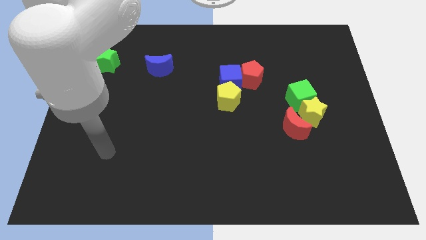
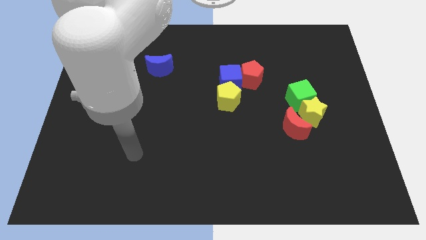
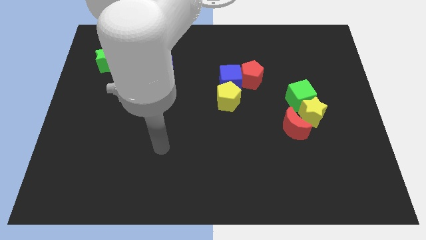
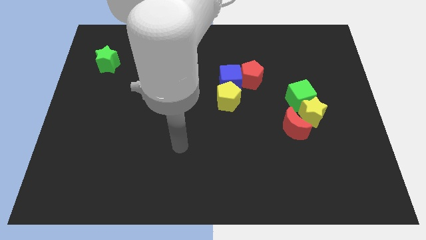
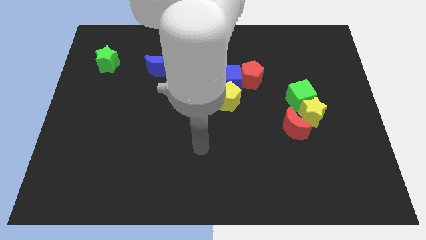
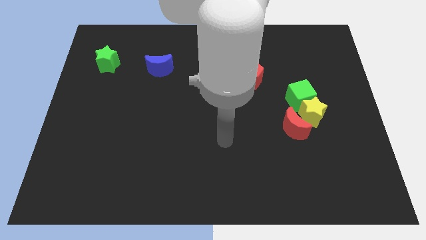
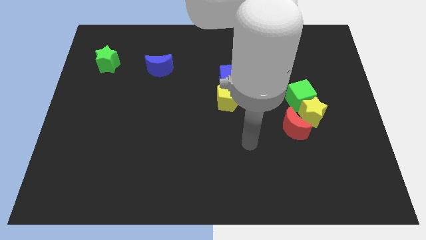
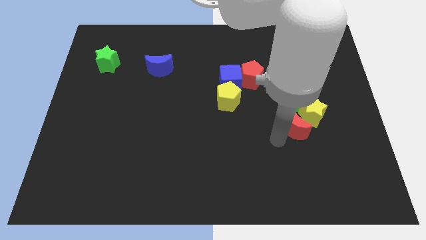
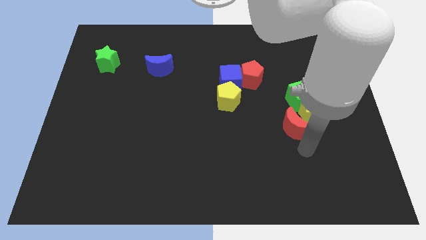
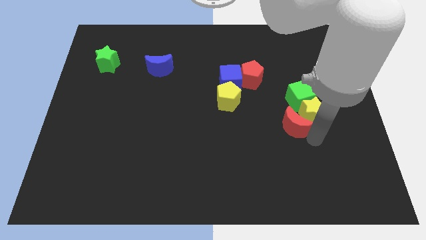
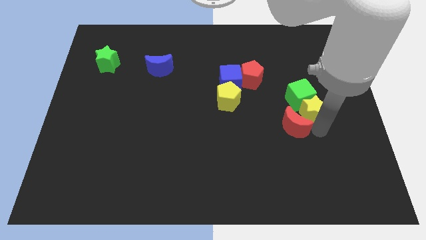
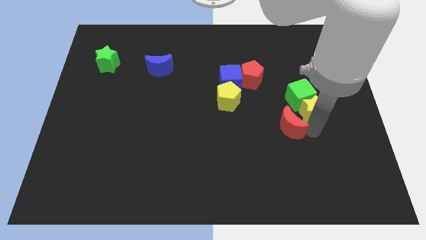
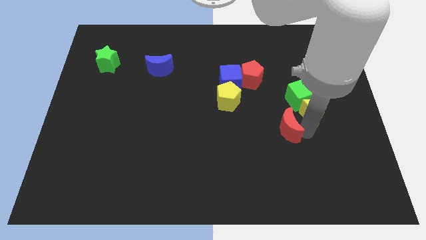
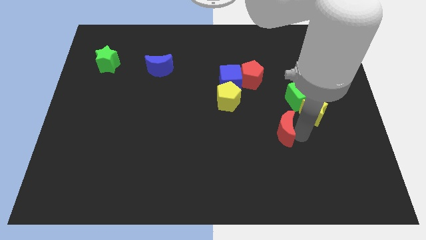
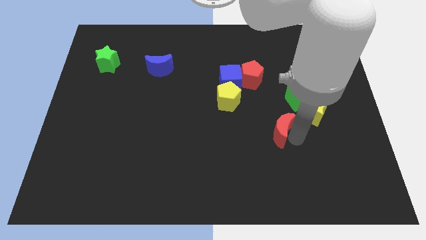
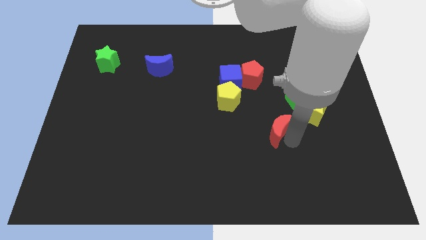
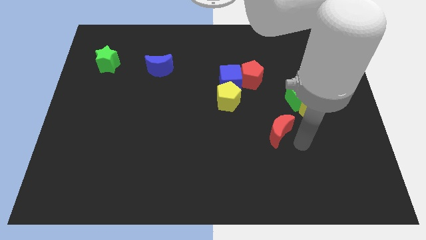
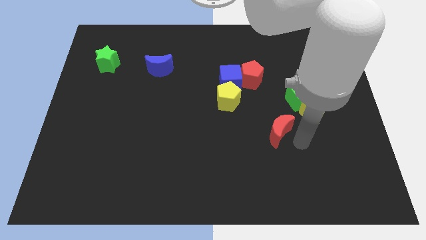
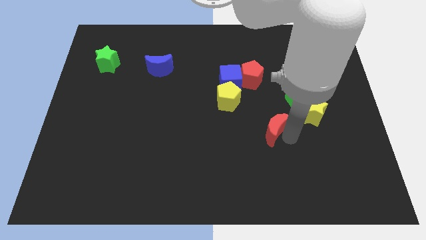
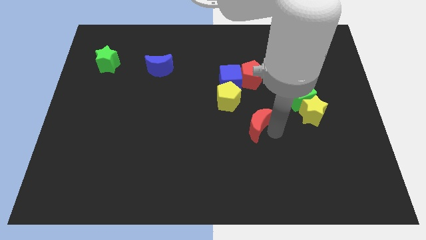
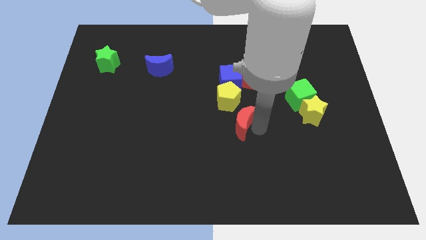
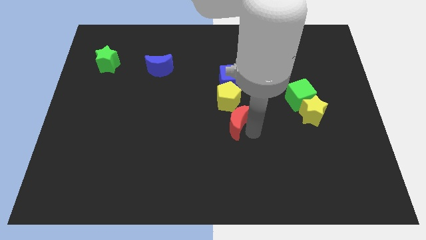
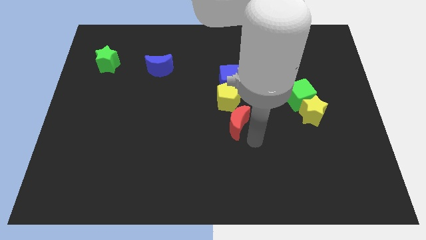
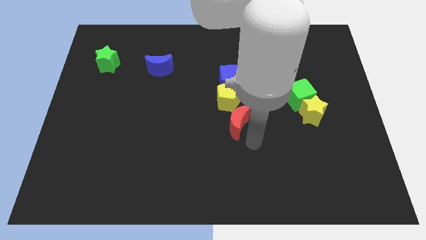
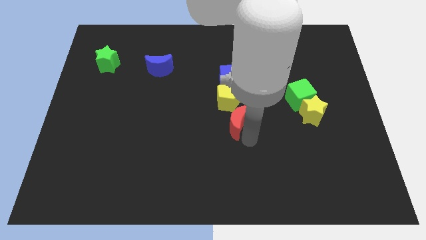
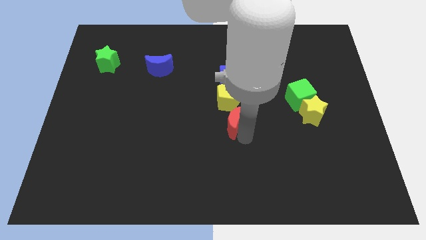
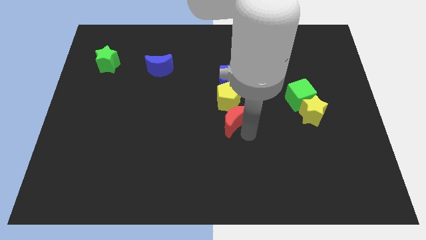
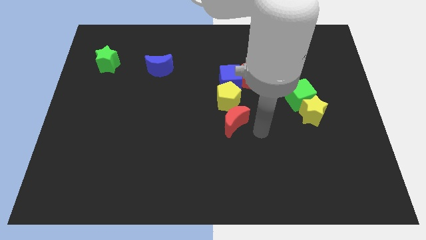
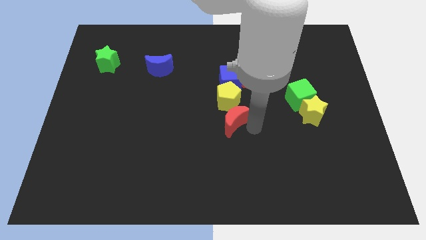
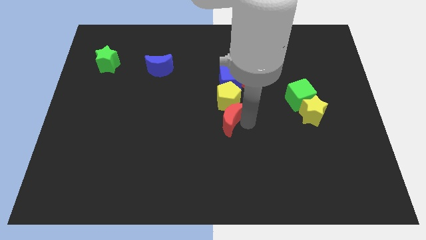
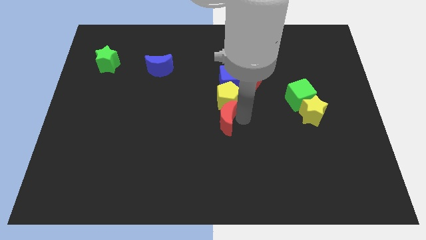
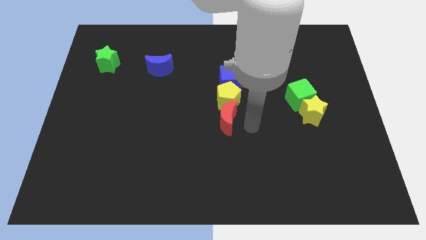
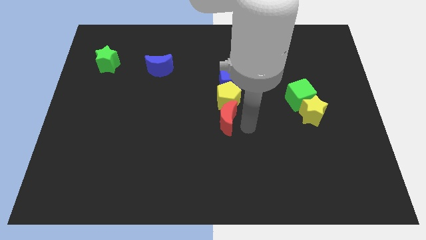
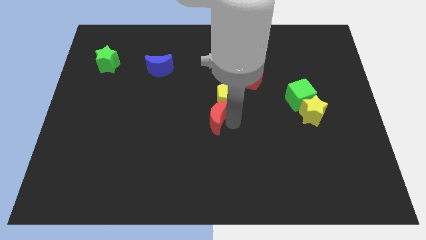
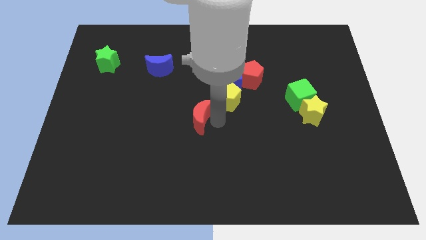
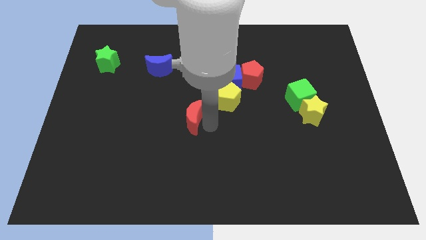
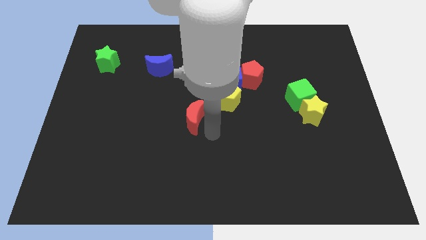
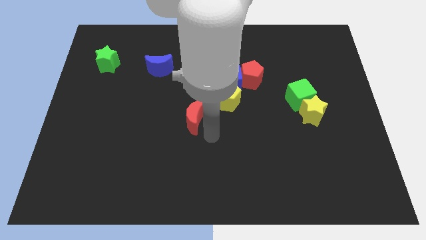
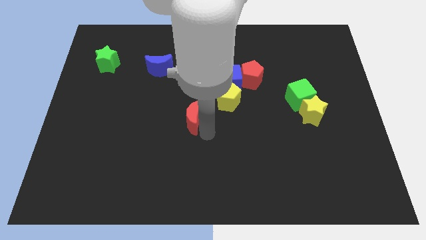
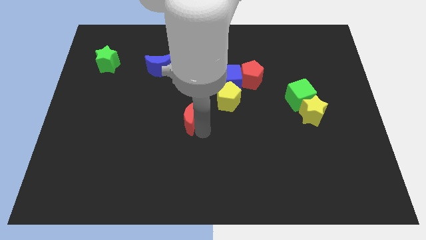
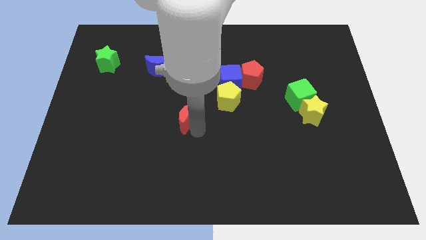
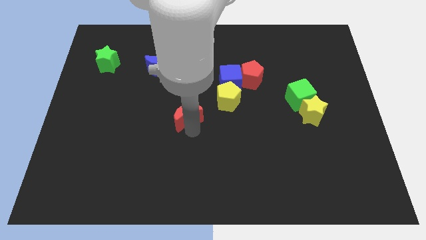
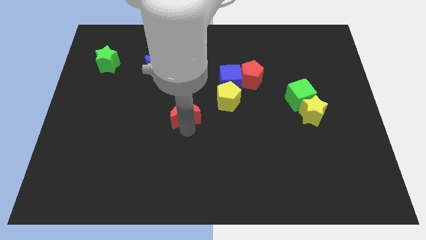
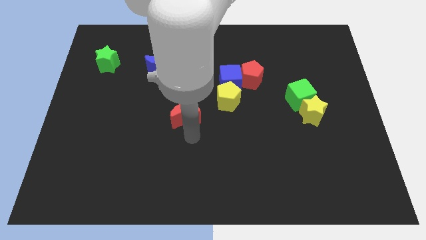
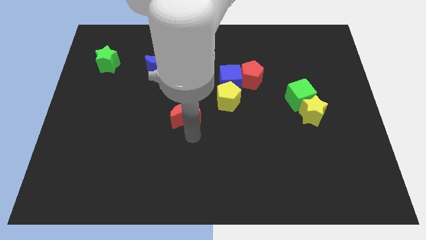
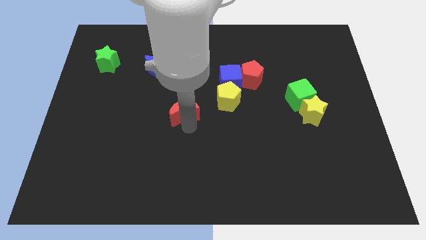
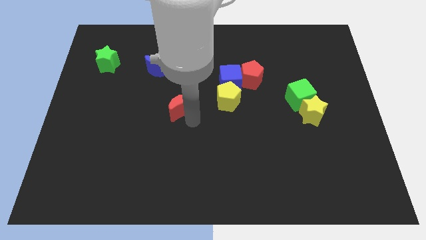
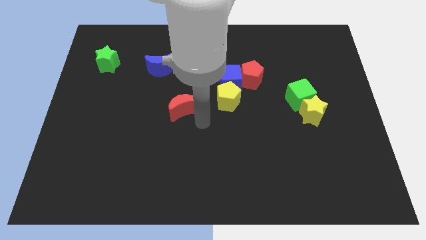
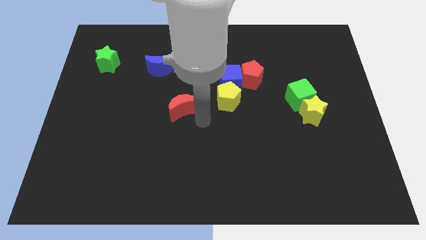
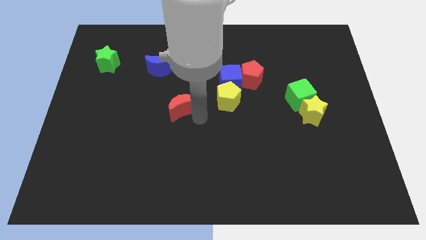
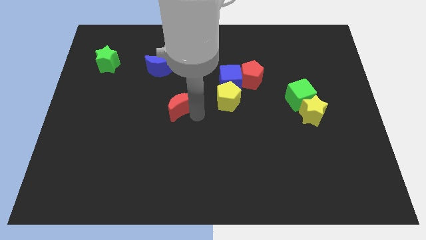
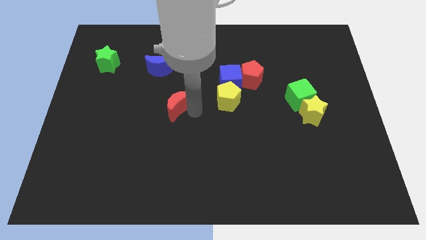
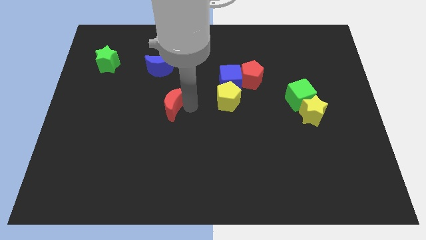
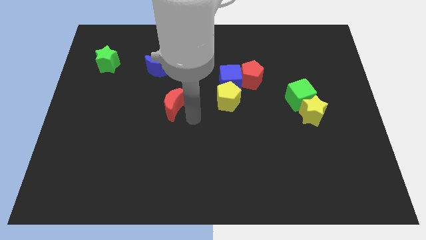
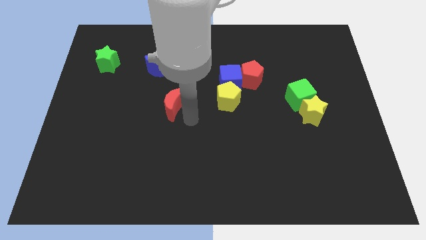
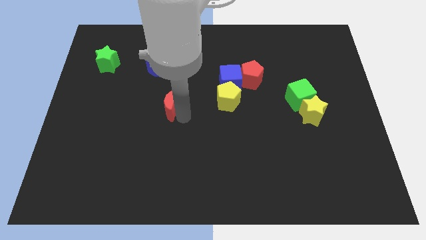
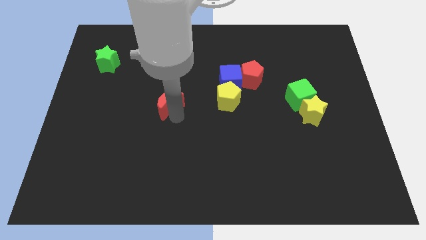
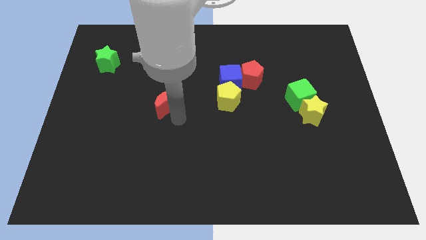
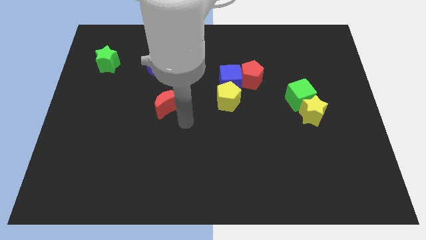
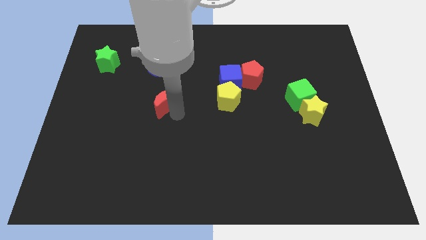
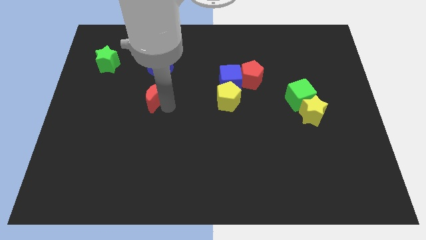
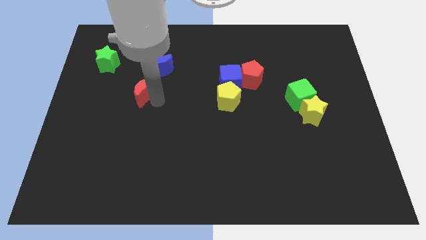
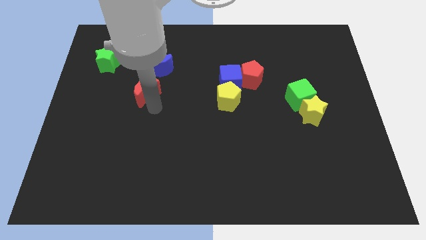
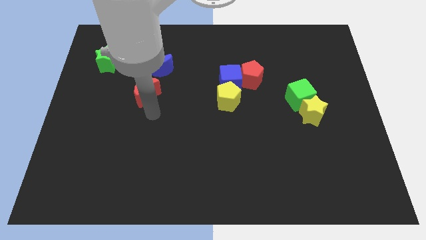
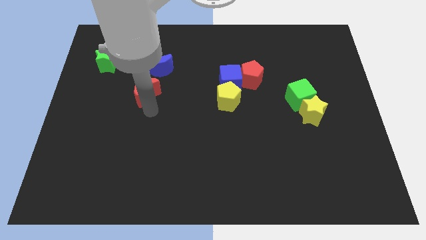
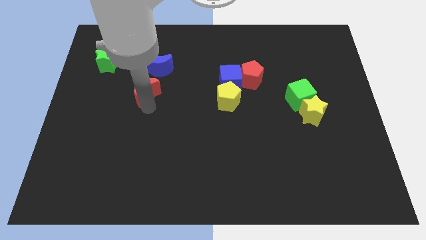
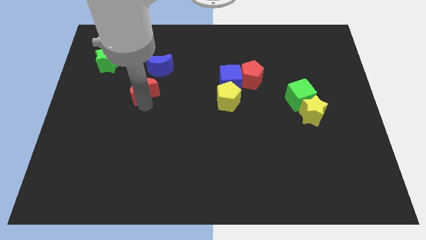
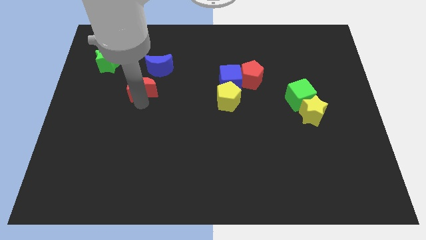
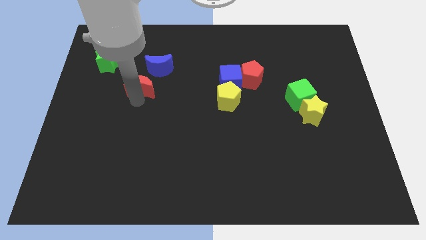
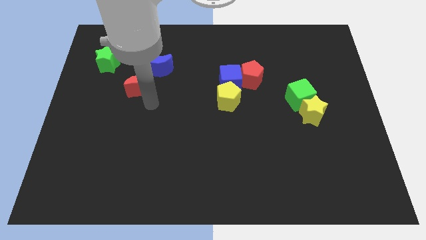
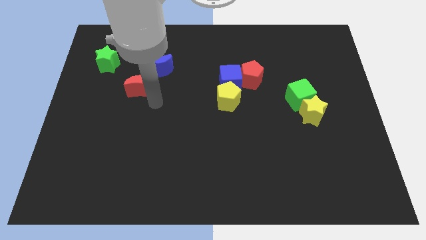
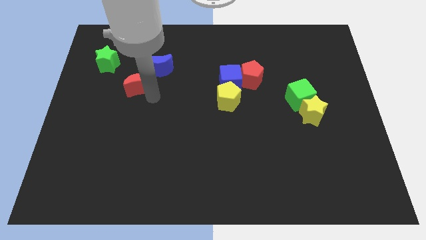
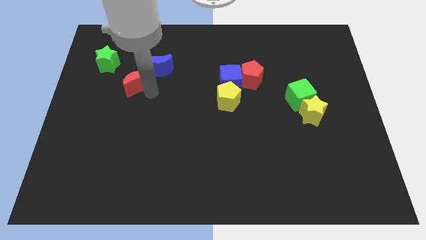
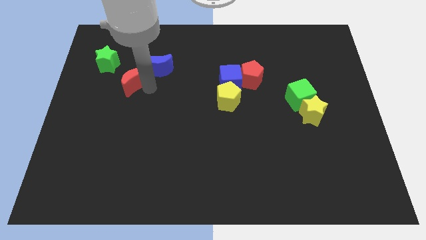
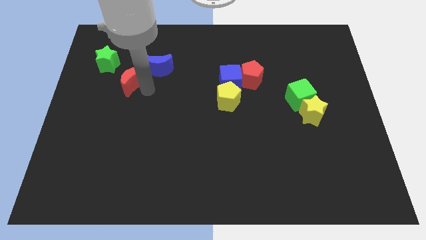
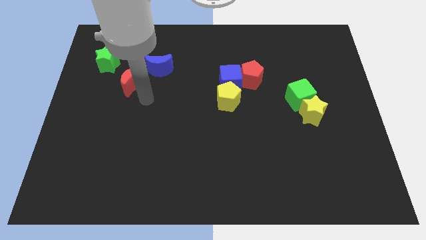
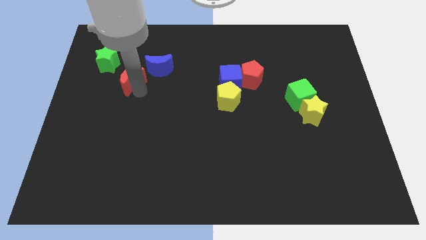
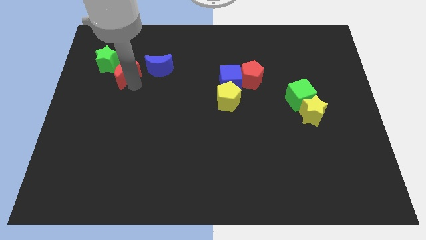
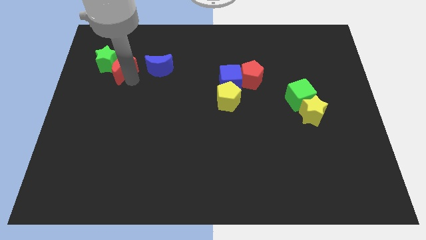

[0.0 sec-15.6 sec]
push the red moon towards the green star
